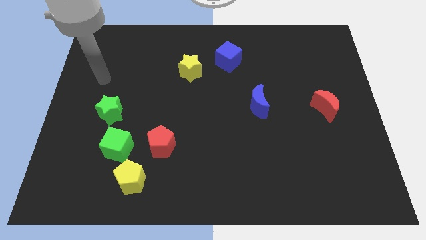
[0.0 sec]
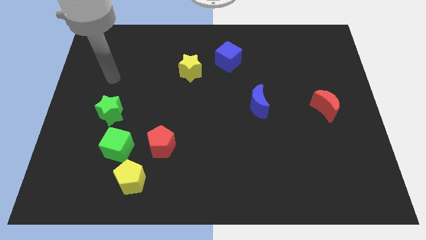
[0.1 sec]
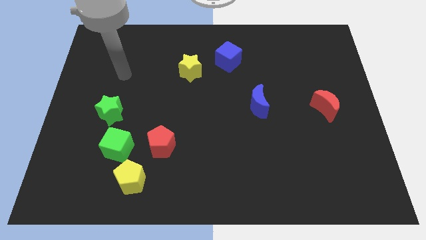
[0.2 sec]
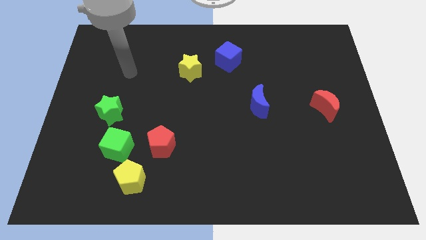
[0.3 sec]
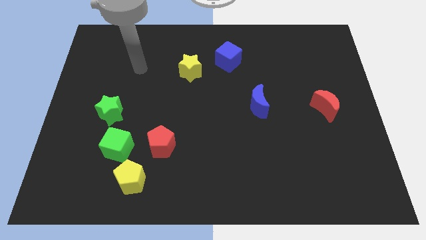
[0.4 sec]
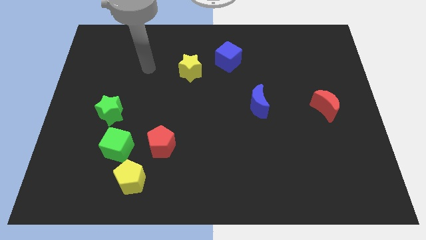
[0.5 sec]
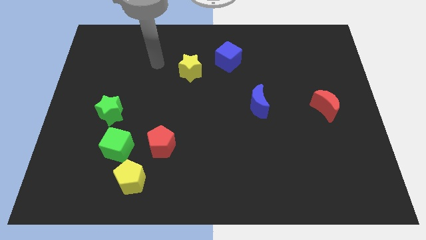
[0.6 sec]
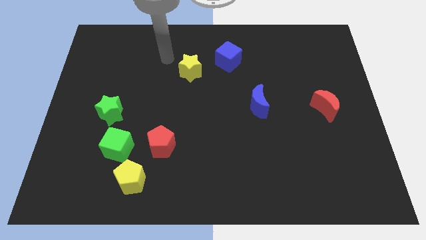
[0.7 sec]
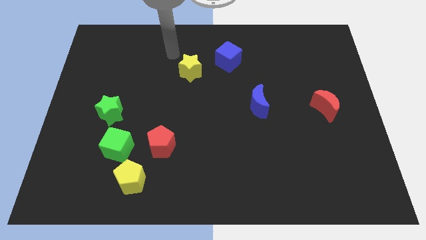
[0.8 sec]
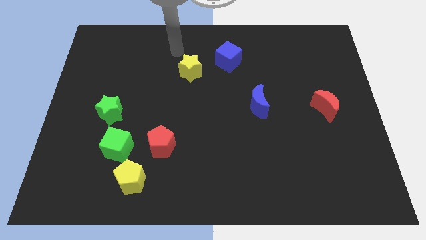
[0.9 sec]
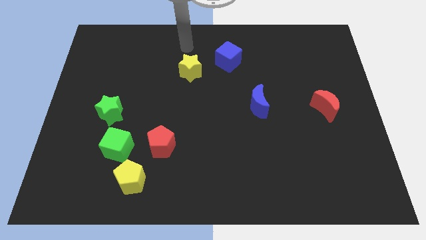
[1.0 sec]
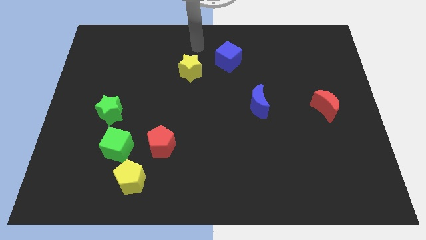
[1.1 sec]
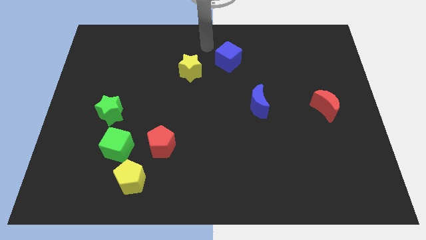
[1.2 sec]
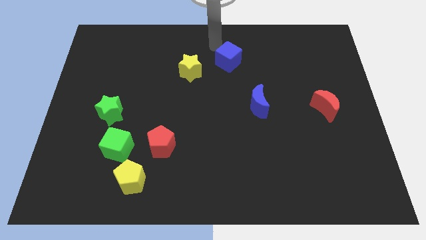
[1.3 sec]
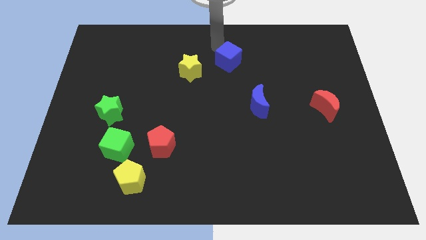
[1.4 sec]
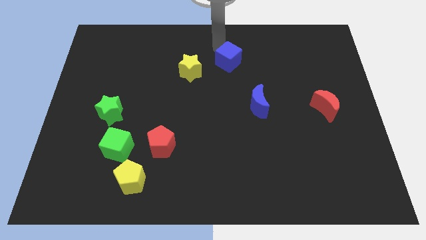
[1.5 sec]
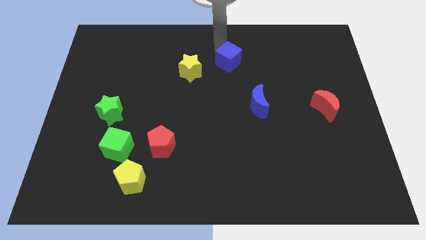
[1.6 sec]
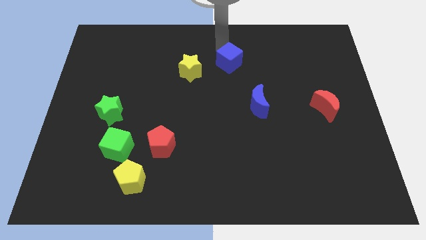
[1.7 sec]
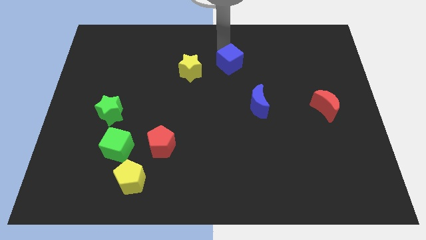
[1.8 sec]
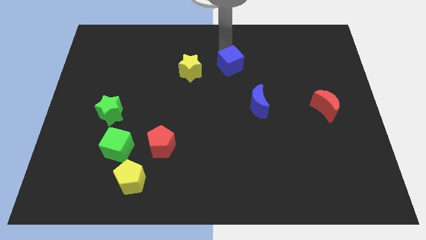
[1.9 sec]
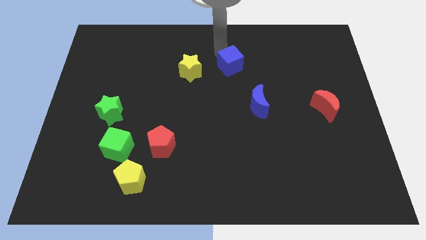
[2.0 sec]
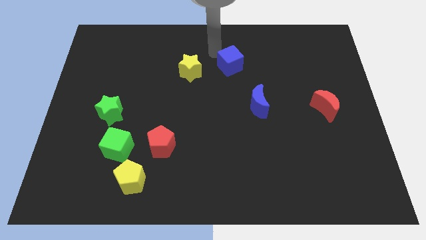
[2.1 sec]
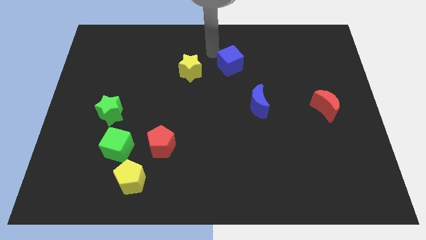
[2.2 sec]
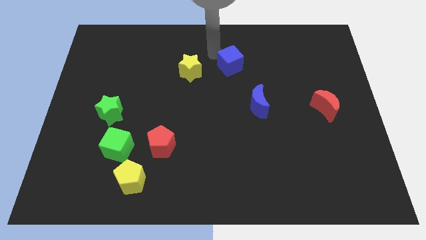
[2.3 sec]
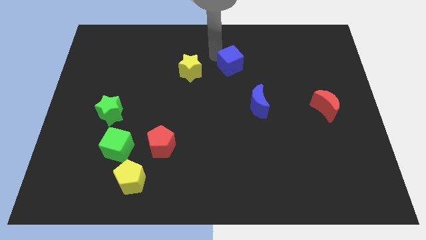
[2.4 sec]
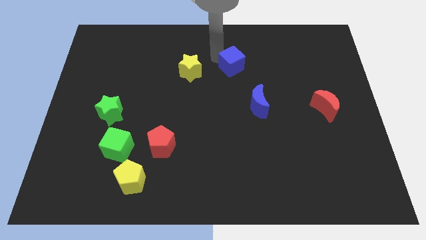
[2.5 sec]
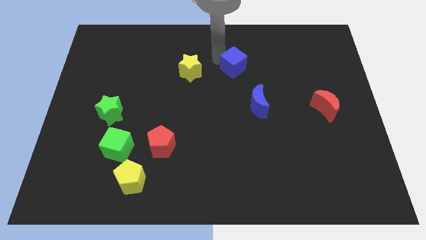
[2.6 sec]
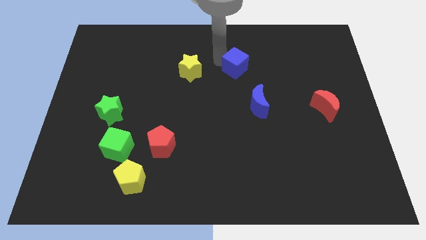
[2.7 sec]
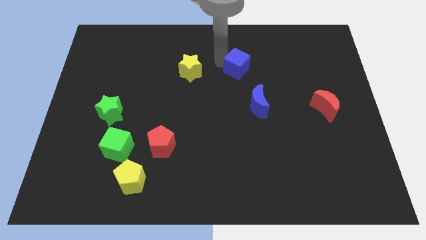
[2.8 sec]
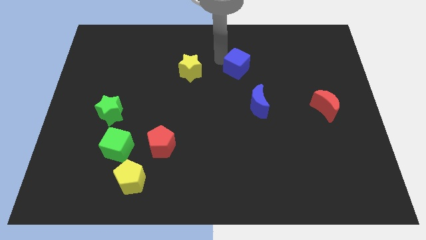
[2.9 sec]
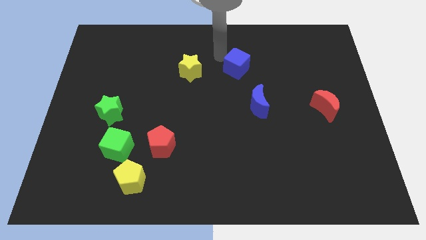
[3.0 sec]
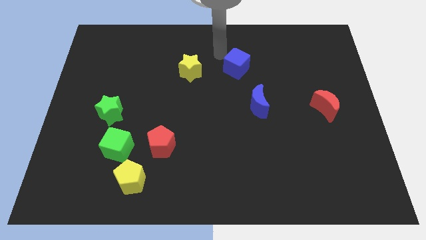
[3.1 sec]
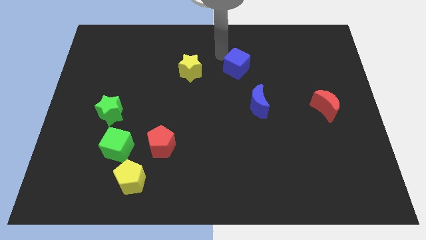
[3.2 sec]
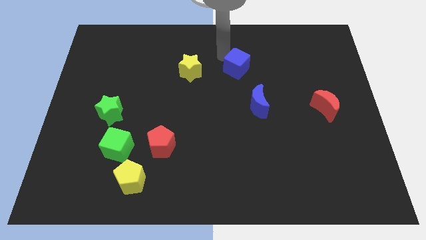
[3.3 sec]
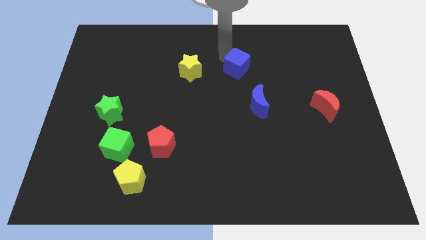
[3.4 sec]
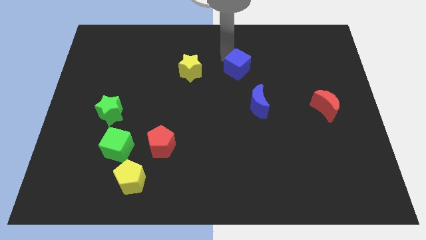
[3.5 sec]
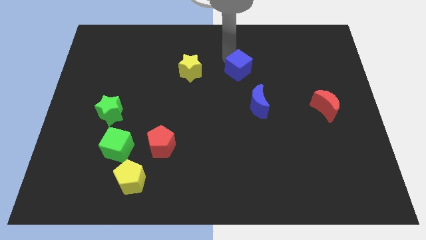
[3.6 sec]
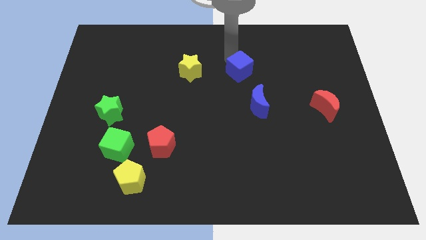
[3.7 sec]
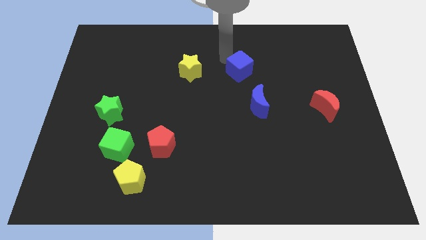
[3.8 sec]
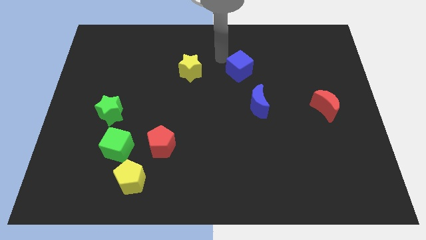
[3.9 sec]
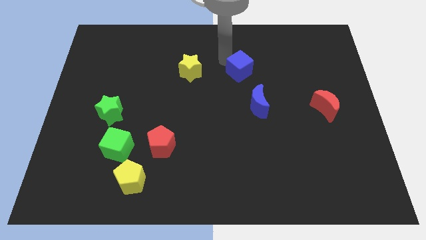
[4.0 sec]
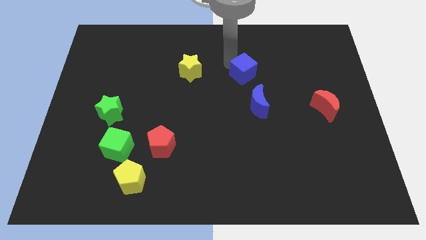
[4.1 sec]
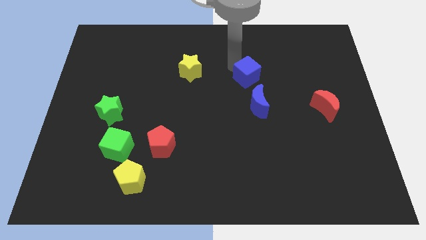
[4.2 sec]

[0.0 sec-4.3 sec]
slightly push the blue cube down and then right

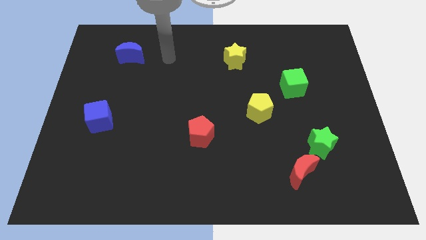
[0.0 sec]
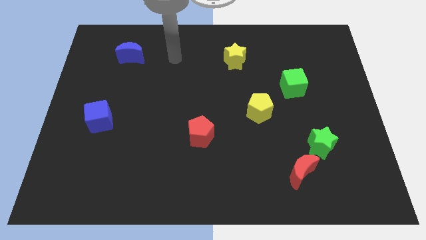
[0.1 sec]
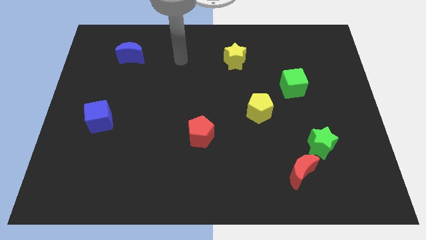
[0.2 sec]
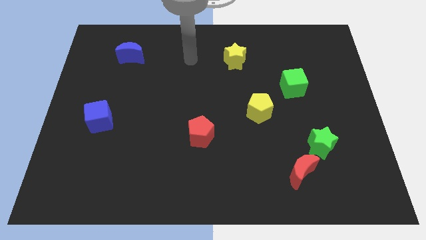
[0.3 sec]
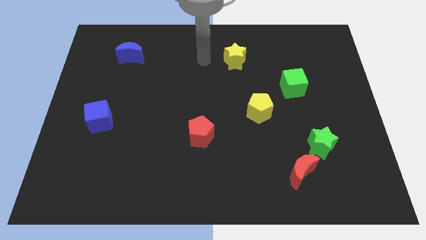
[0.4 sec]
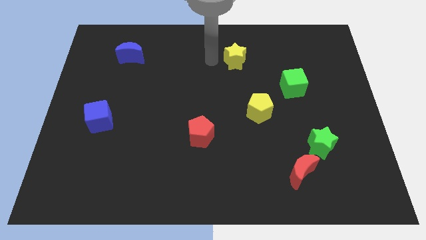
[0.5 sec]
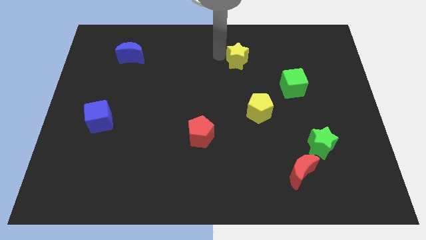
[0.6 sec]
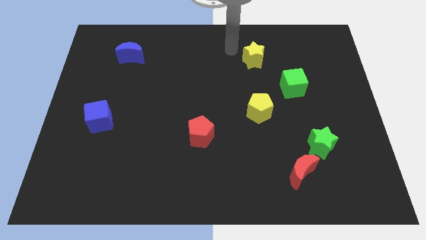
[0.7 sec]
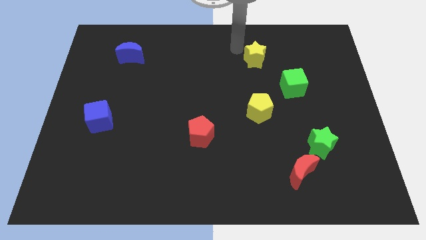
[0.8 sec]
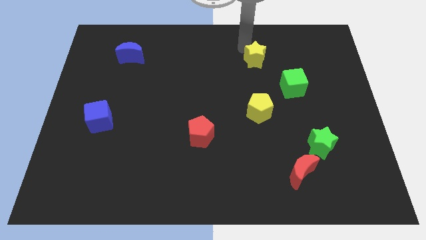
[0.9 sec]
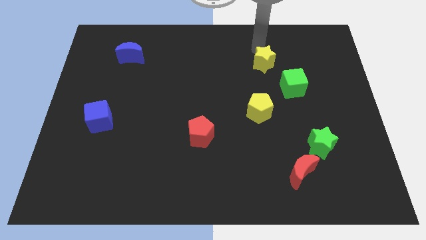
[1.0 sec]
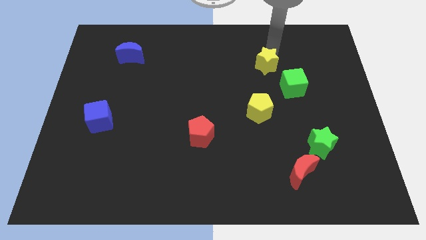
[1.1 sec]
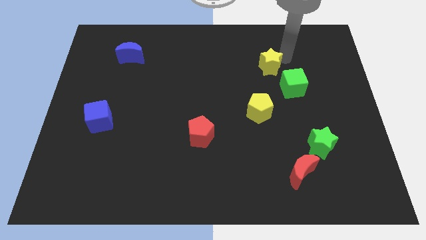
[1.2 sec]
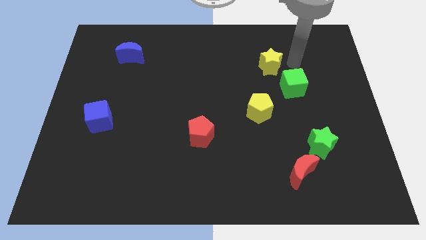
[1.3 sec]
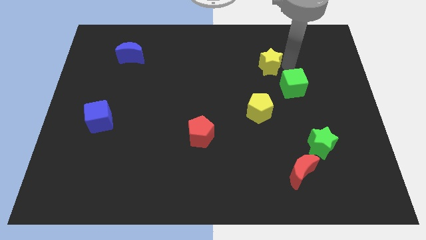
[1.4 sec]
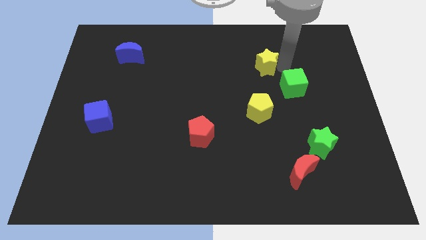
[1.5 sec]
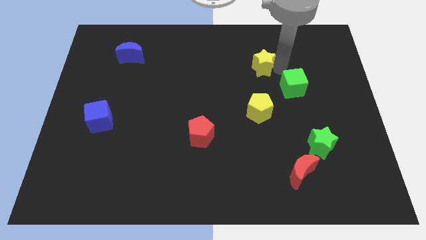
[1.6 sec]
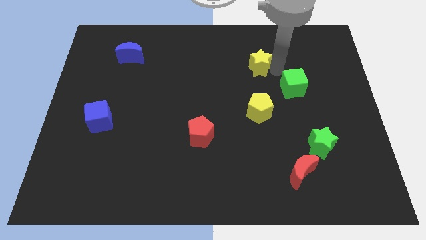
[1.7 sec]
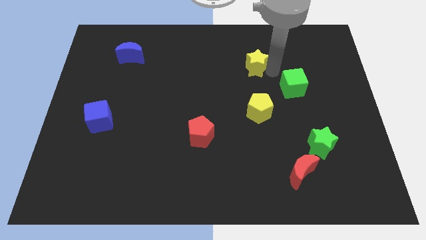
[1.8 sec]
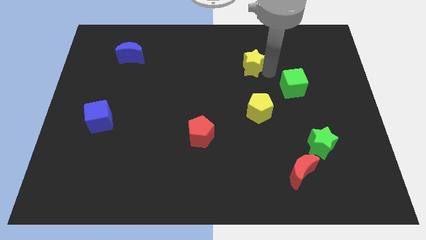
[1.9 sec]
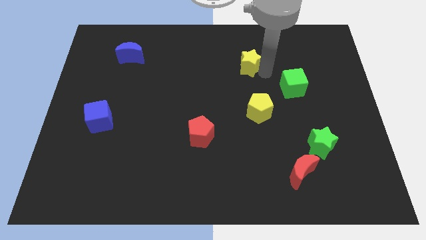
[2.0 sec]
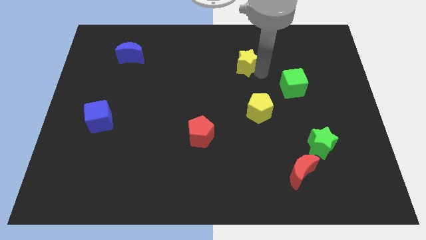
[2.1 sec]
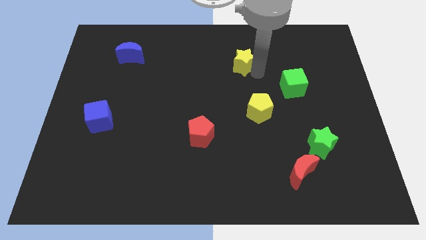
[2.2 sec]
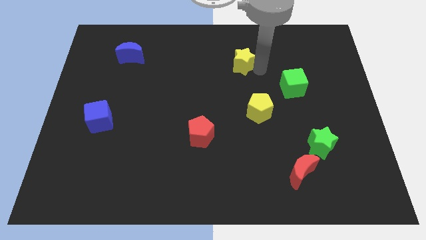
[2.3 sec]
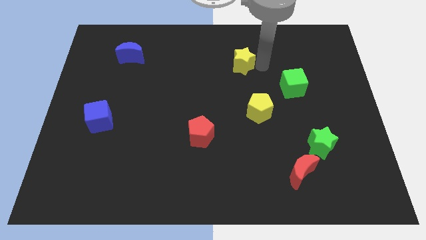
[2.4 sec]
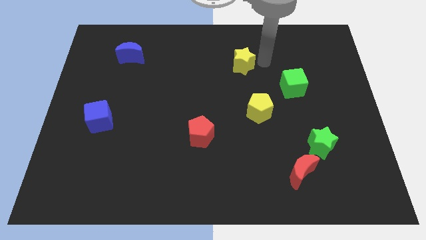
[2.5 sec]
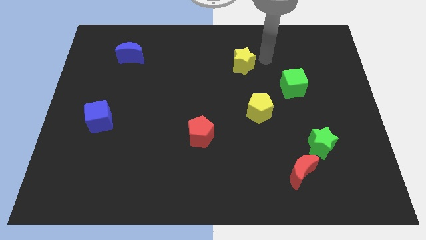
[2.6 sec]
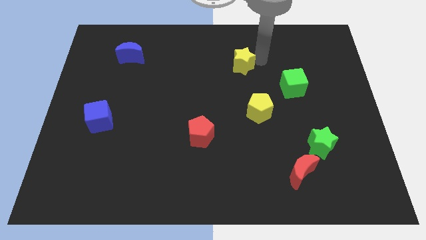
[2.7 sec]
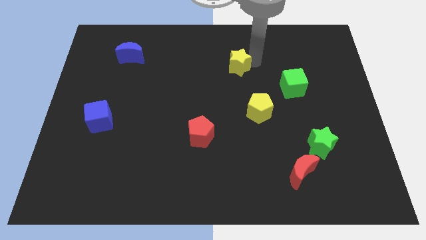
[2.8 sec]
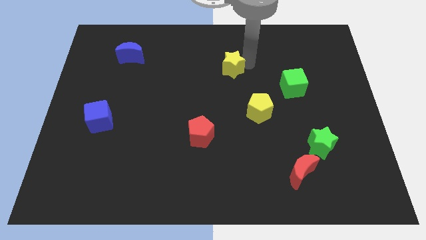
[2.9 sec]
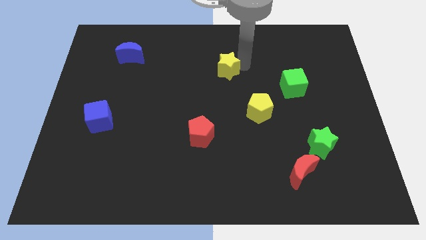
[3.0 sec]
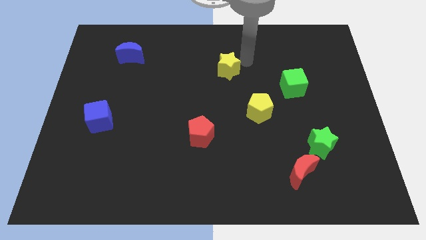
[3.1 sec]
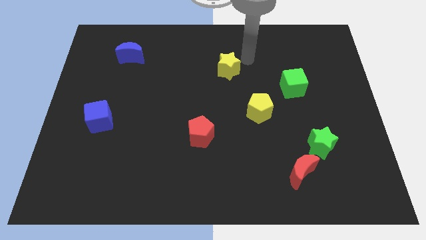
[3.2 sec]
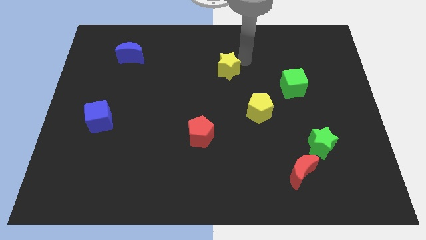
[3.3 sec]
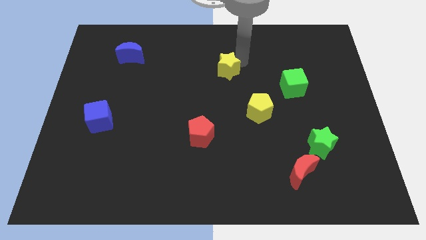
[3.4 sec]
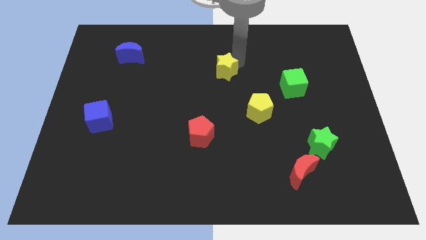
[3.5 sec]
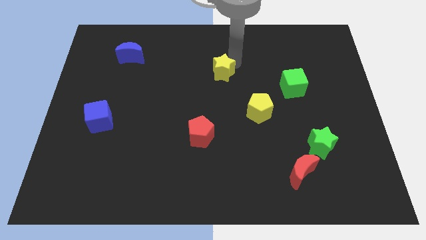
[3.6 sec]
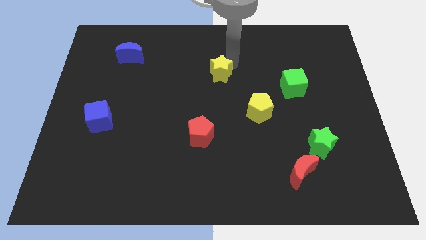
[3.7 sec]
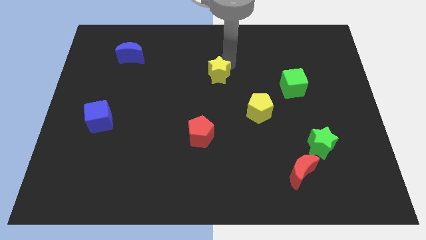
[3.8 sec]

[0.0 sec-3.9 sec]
move the yellow star a bit downwards and to the left
